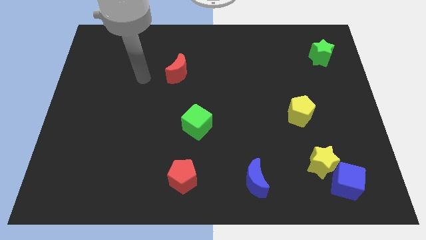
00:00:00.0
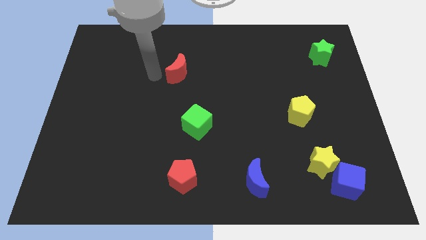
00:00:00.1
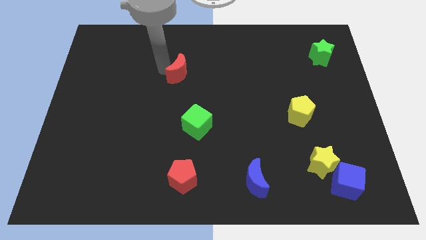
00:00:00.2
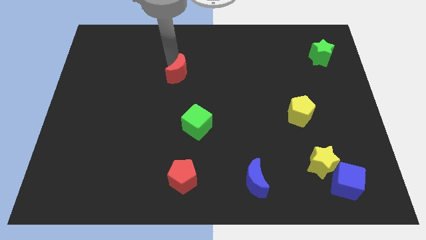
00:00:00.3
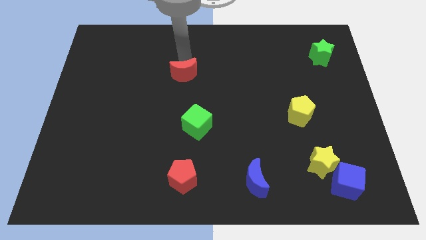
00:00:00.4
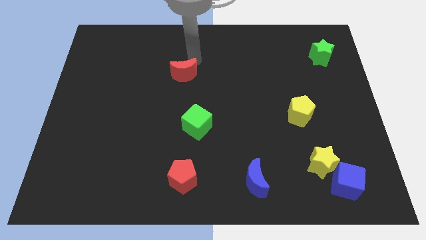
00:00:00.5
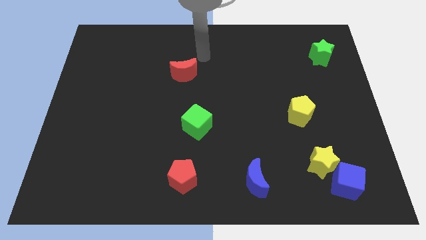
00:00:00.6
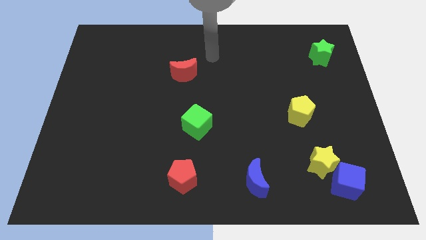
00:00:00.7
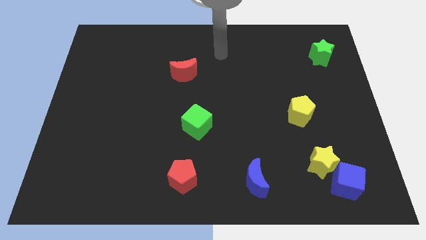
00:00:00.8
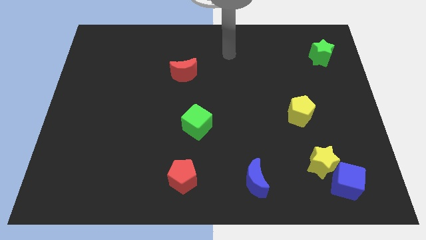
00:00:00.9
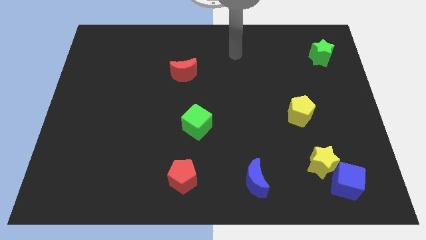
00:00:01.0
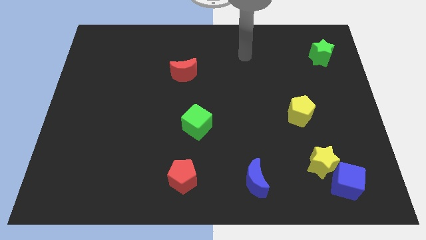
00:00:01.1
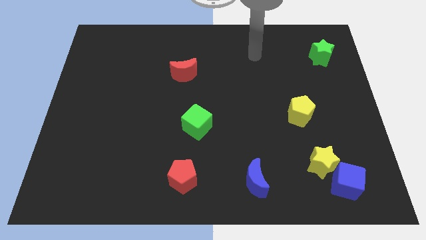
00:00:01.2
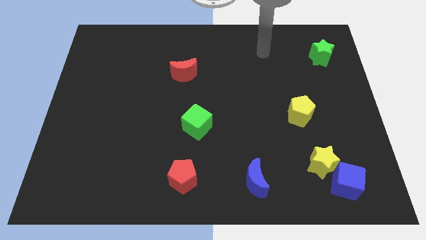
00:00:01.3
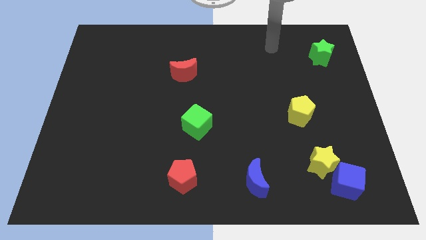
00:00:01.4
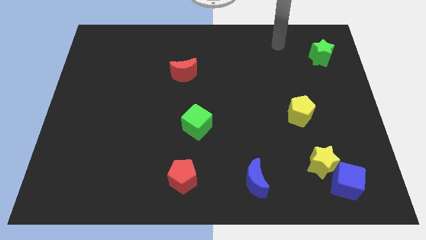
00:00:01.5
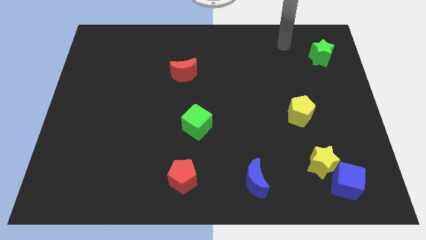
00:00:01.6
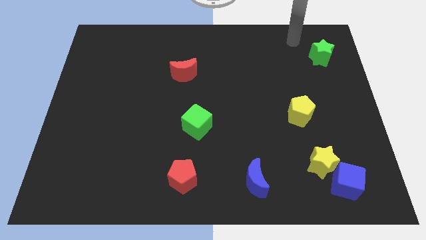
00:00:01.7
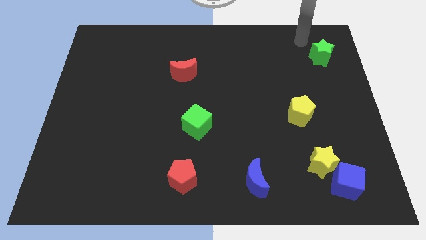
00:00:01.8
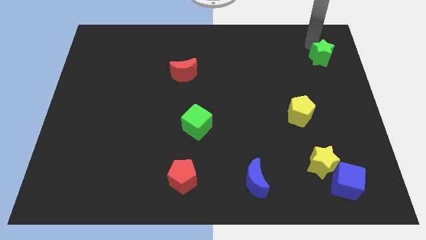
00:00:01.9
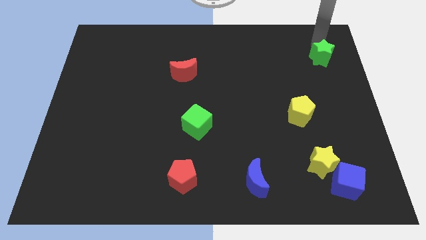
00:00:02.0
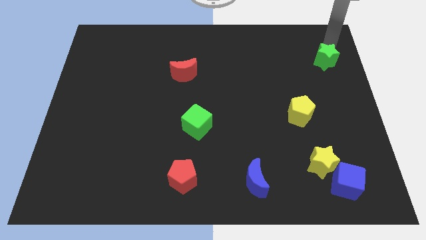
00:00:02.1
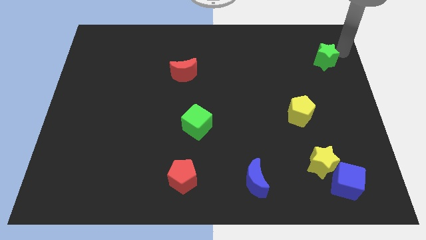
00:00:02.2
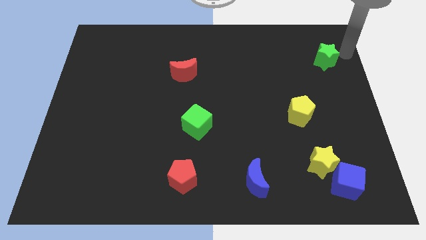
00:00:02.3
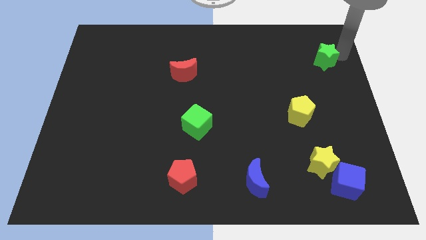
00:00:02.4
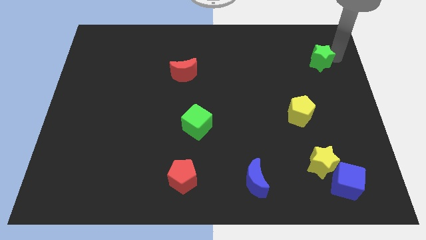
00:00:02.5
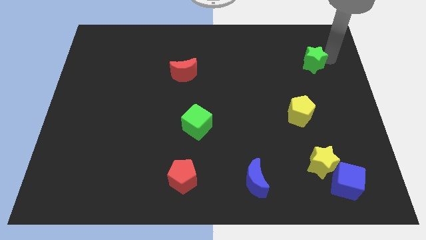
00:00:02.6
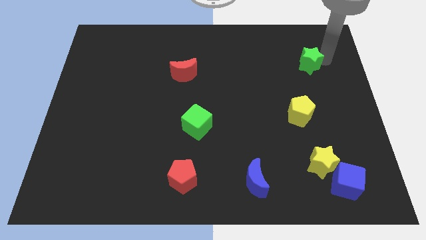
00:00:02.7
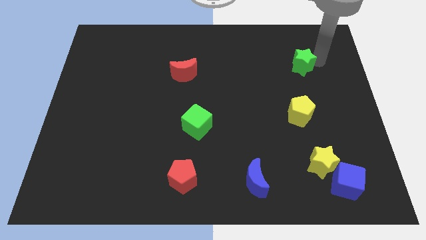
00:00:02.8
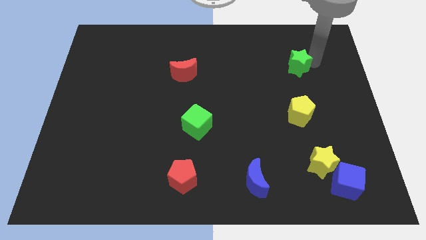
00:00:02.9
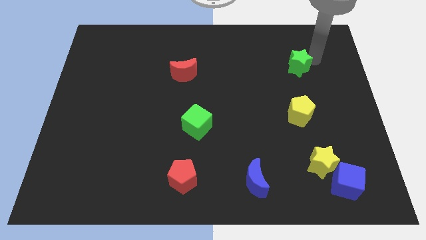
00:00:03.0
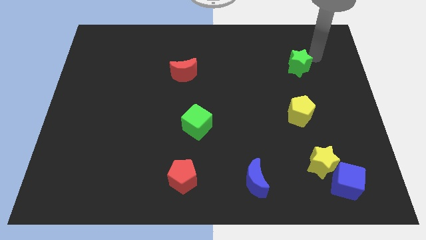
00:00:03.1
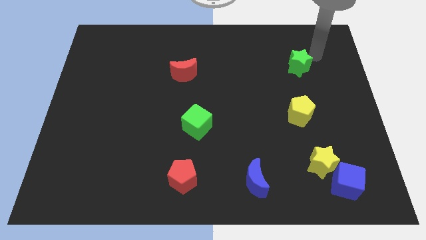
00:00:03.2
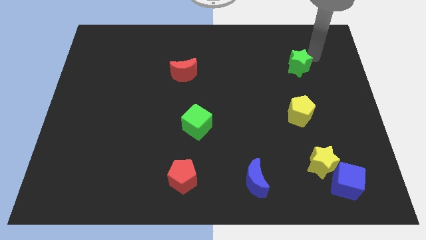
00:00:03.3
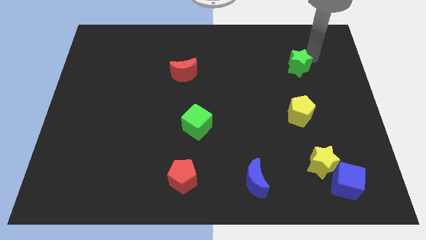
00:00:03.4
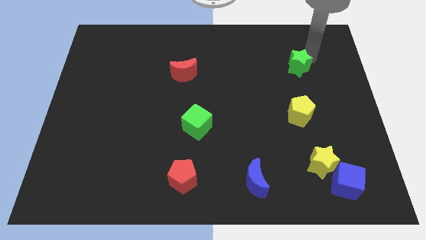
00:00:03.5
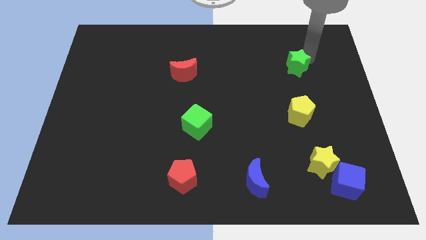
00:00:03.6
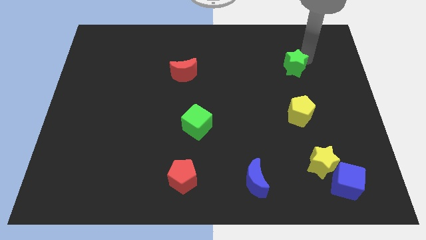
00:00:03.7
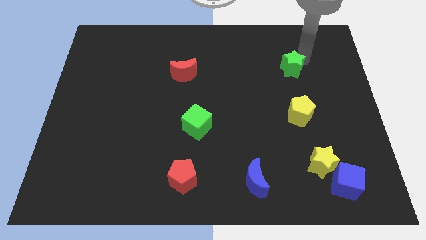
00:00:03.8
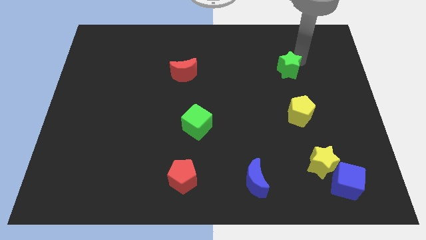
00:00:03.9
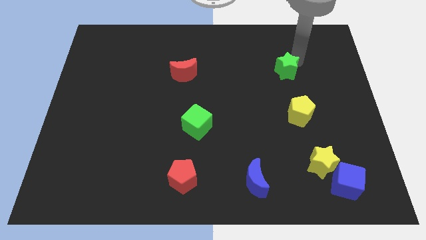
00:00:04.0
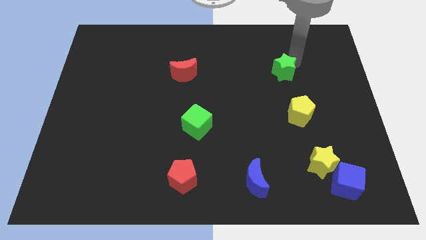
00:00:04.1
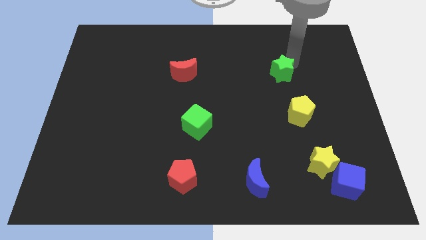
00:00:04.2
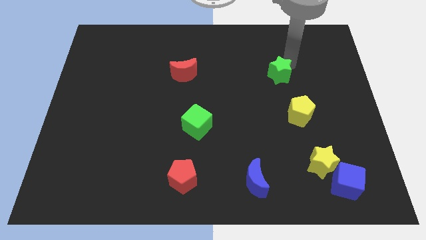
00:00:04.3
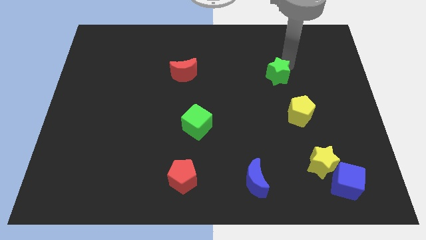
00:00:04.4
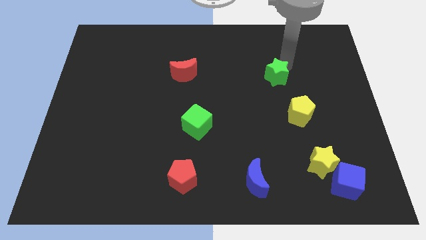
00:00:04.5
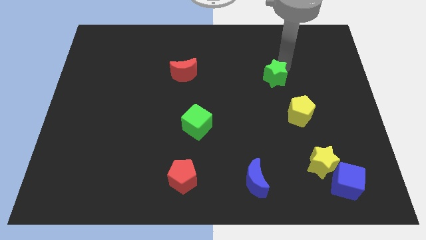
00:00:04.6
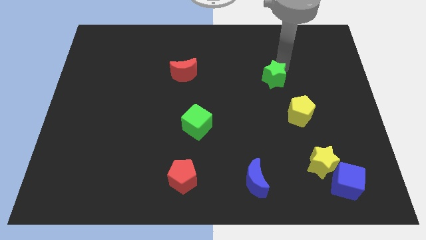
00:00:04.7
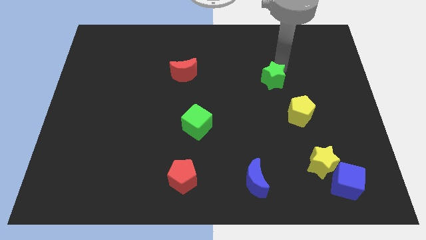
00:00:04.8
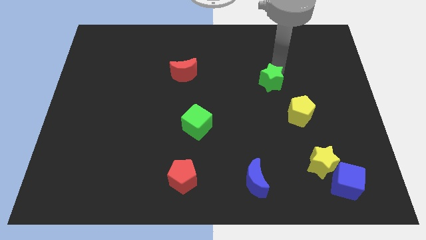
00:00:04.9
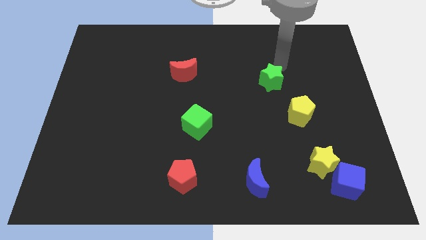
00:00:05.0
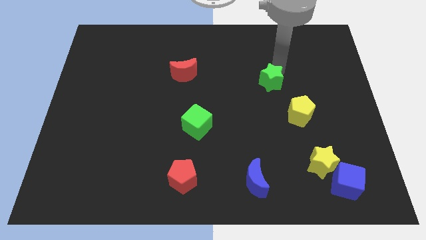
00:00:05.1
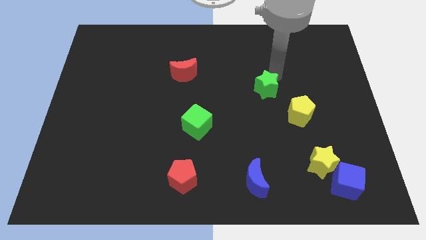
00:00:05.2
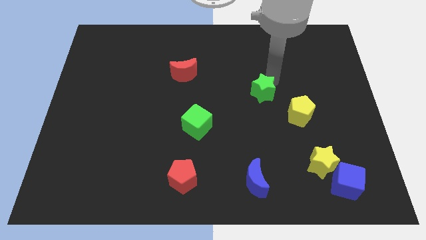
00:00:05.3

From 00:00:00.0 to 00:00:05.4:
slide the green star diagonally downwards and left

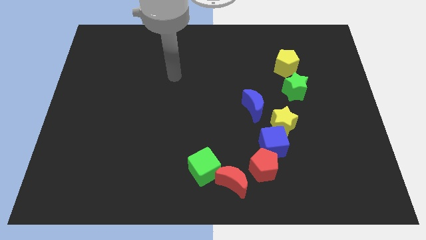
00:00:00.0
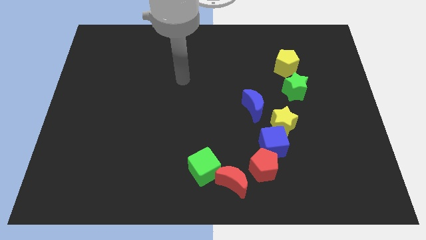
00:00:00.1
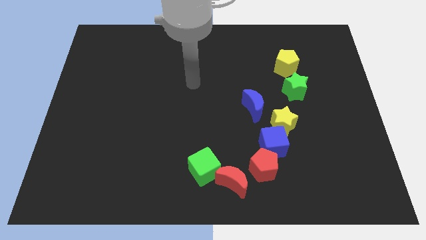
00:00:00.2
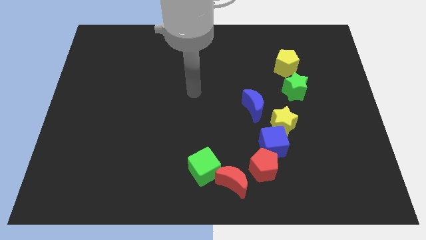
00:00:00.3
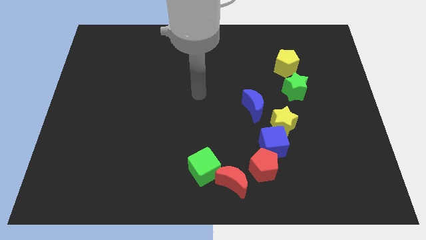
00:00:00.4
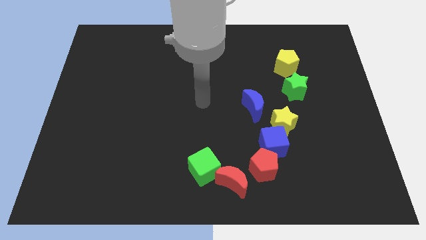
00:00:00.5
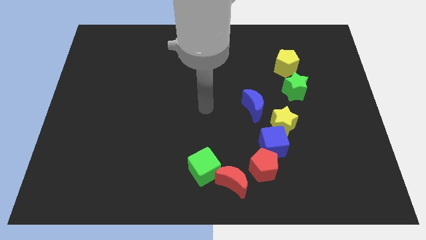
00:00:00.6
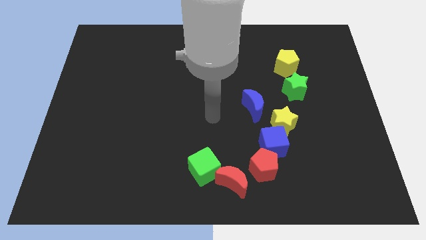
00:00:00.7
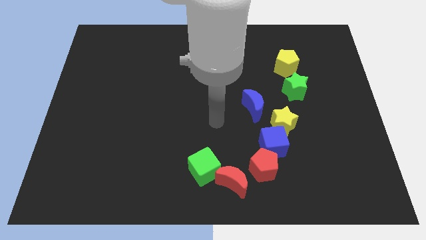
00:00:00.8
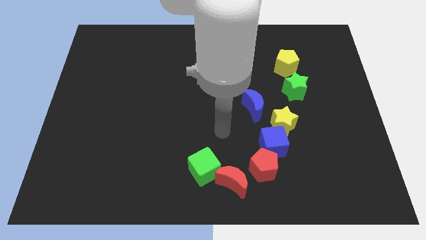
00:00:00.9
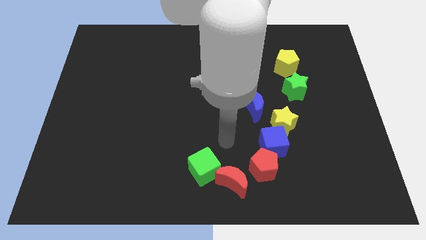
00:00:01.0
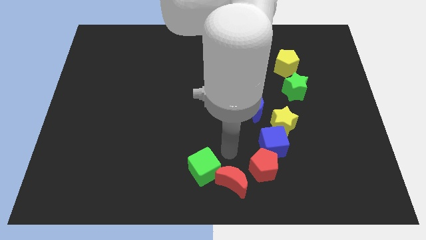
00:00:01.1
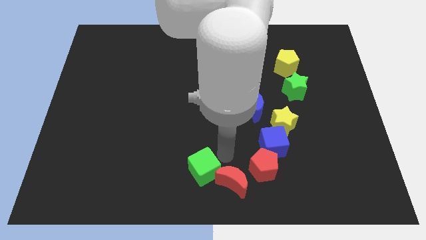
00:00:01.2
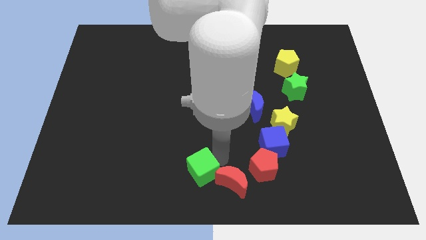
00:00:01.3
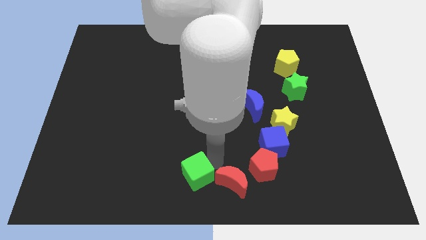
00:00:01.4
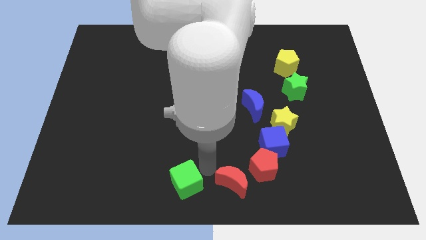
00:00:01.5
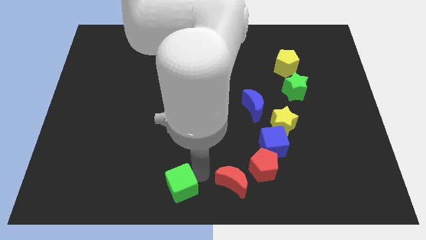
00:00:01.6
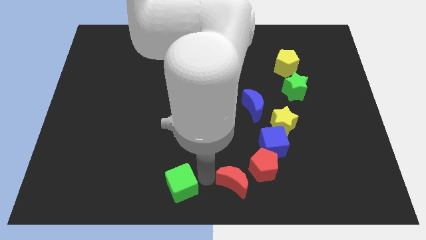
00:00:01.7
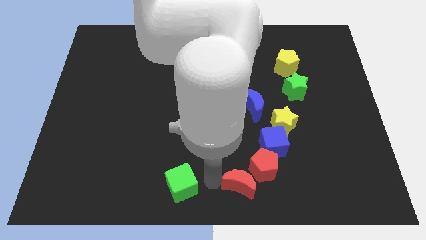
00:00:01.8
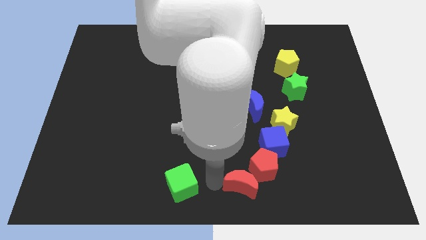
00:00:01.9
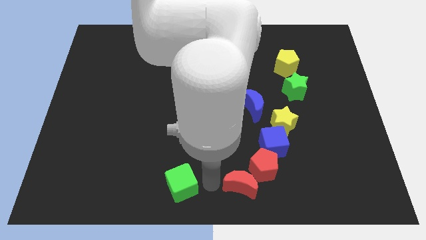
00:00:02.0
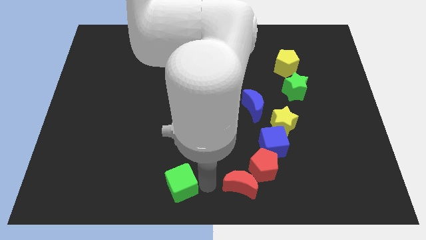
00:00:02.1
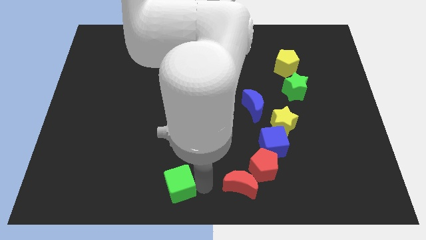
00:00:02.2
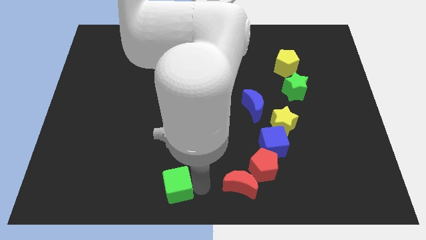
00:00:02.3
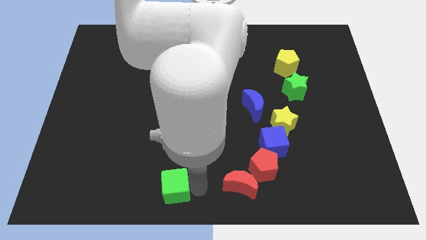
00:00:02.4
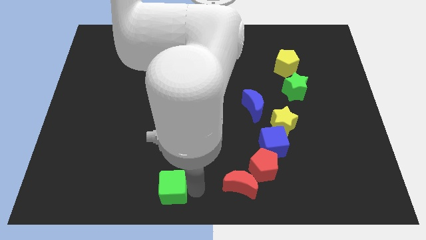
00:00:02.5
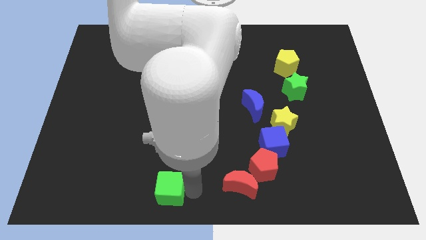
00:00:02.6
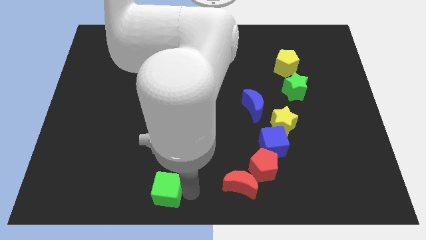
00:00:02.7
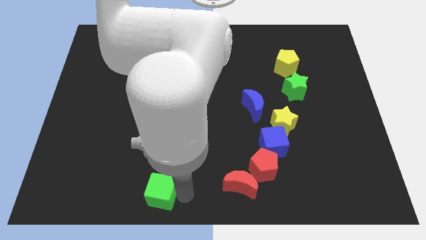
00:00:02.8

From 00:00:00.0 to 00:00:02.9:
push the green cube left a little
